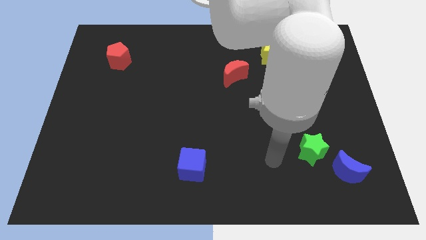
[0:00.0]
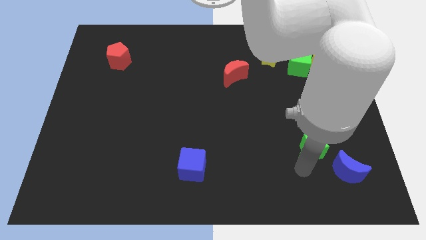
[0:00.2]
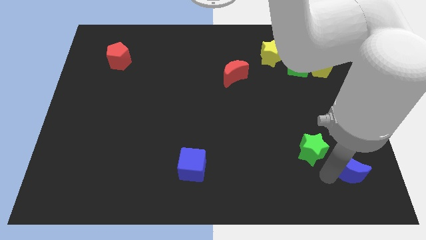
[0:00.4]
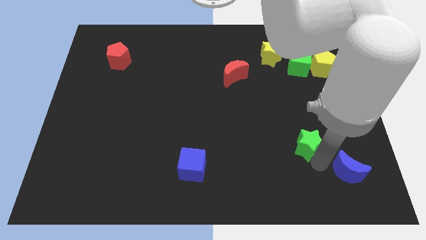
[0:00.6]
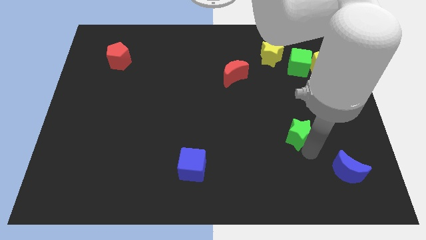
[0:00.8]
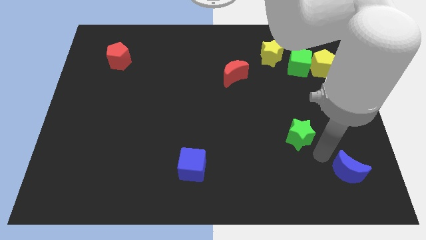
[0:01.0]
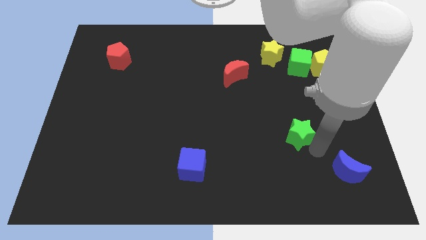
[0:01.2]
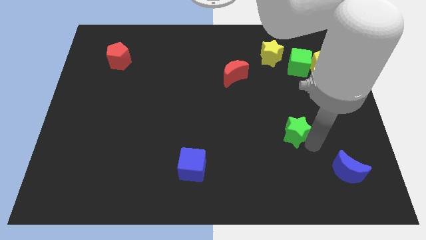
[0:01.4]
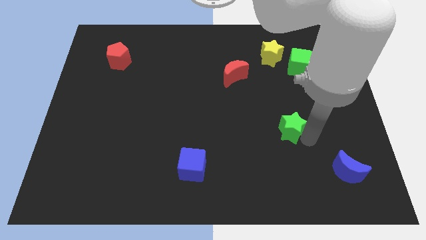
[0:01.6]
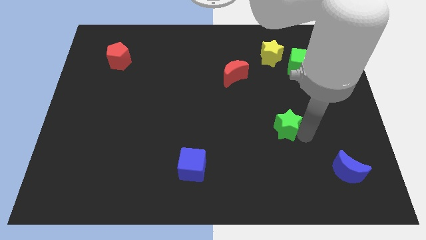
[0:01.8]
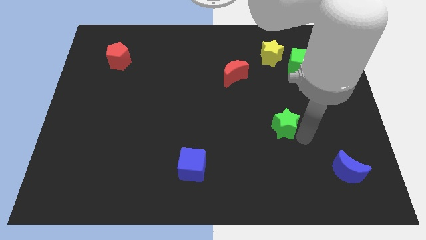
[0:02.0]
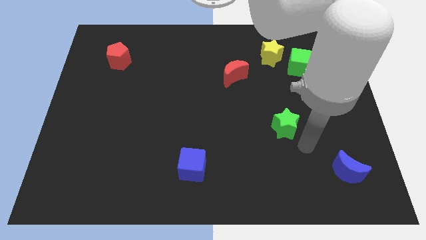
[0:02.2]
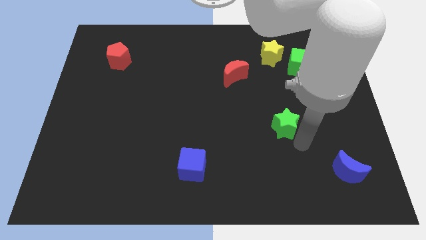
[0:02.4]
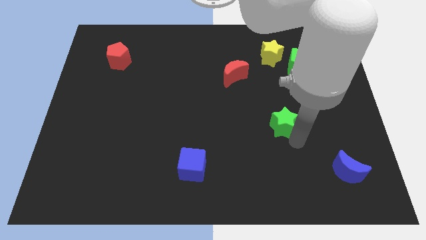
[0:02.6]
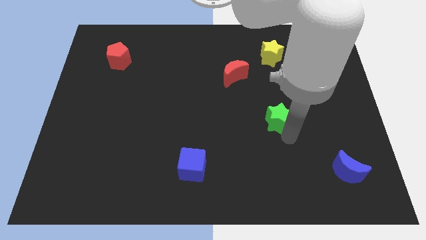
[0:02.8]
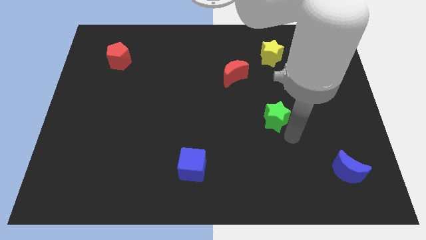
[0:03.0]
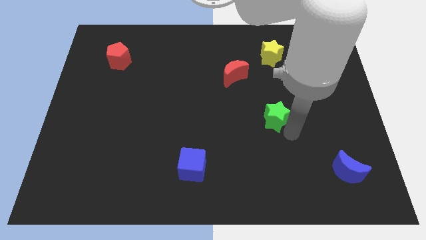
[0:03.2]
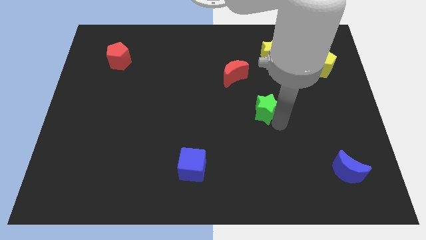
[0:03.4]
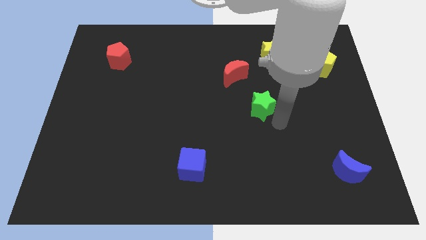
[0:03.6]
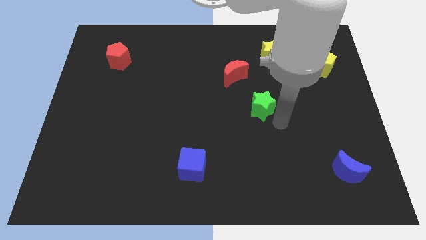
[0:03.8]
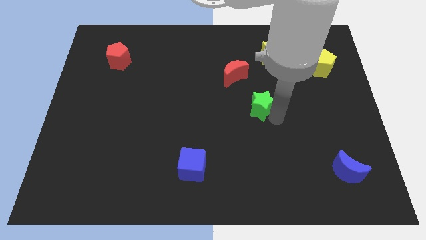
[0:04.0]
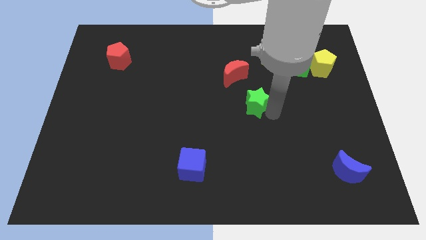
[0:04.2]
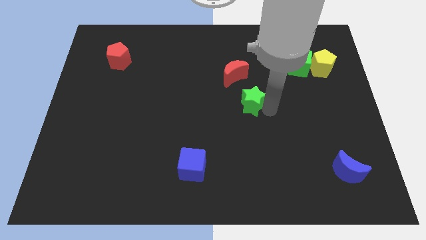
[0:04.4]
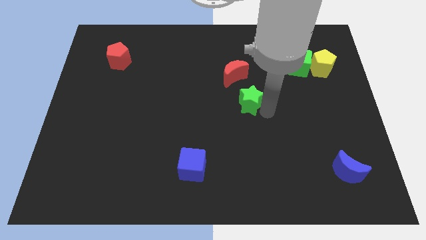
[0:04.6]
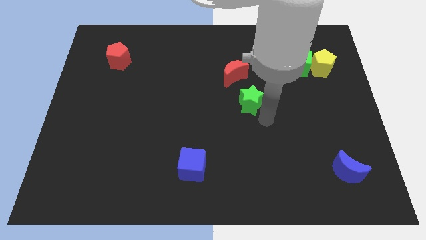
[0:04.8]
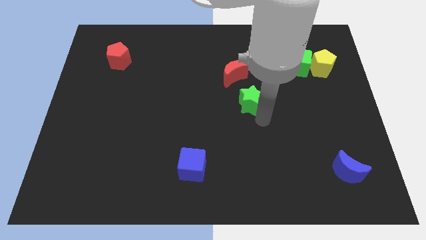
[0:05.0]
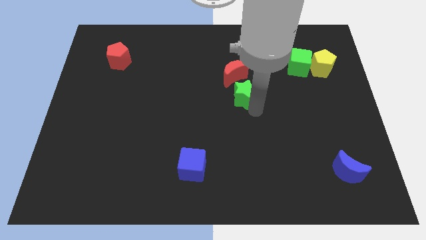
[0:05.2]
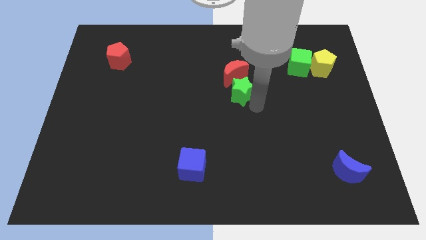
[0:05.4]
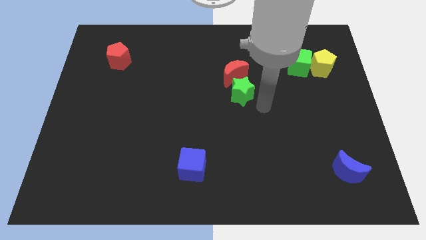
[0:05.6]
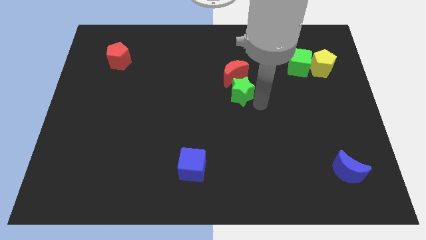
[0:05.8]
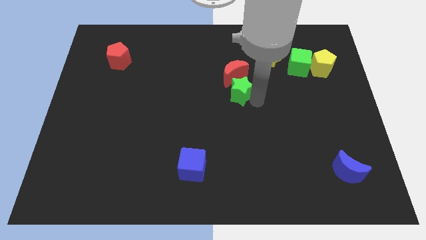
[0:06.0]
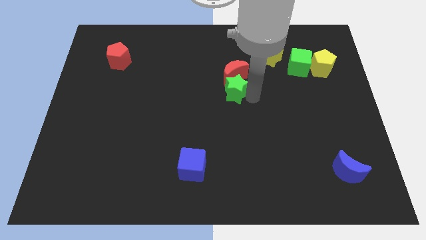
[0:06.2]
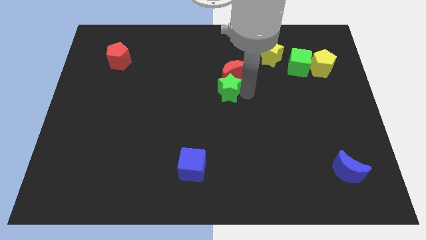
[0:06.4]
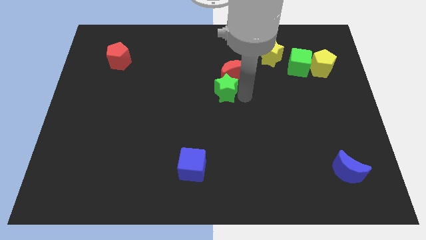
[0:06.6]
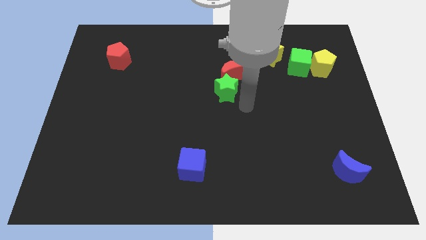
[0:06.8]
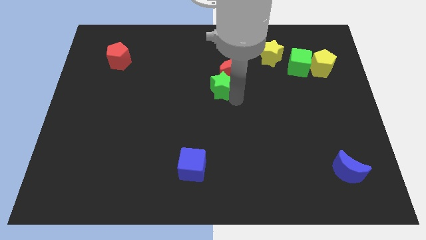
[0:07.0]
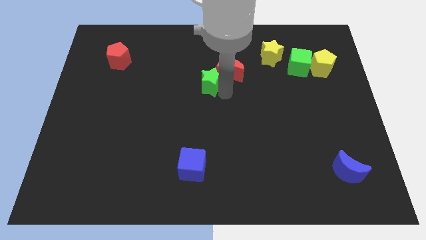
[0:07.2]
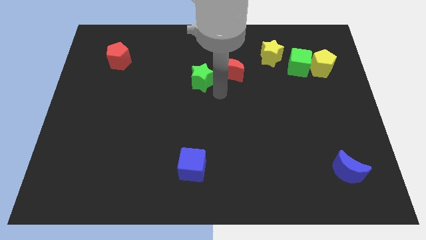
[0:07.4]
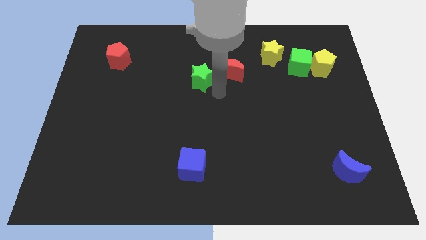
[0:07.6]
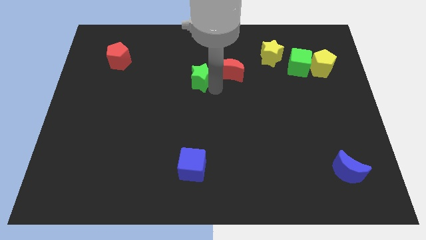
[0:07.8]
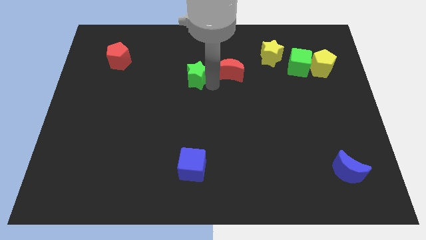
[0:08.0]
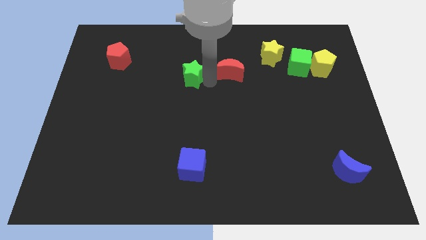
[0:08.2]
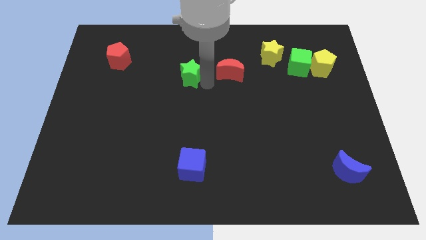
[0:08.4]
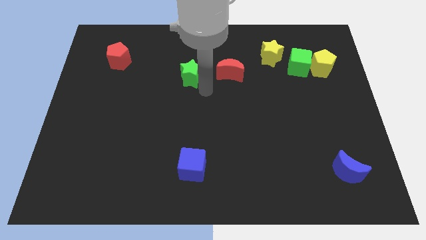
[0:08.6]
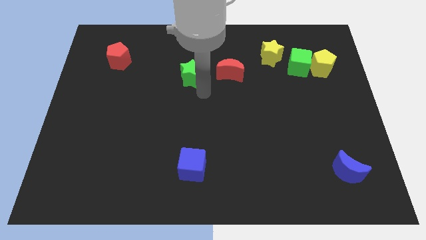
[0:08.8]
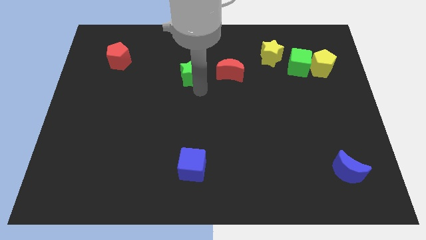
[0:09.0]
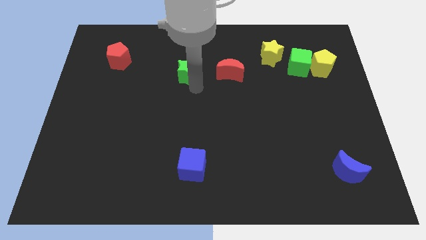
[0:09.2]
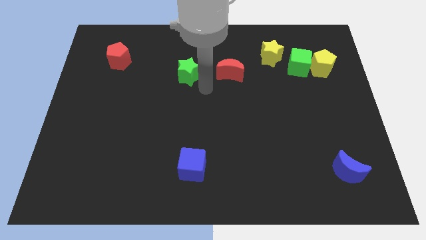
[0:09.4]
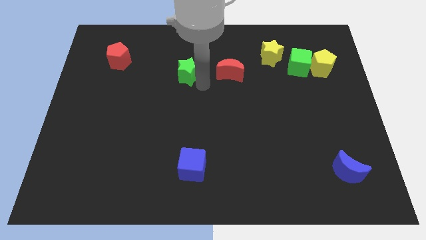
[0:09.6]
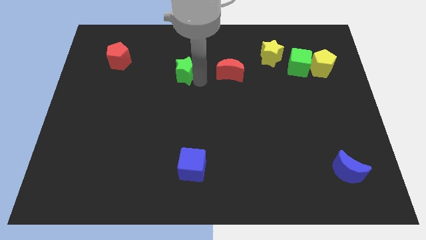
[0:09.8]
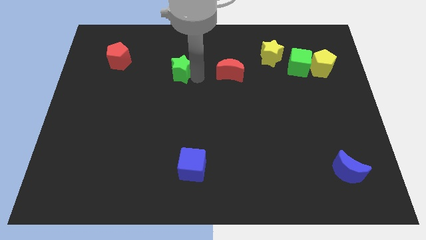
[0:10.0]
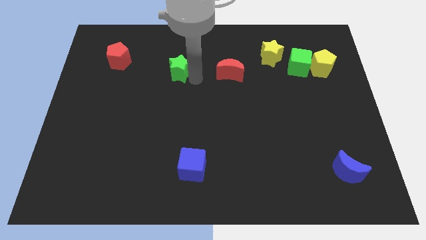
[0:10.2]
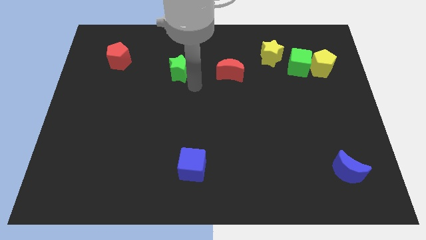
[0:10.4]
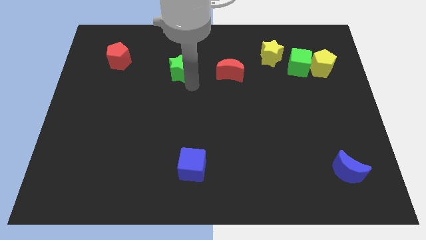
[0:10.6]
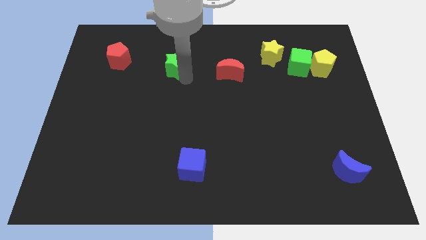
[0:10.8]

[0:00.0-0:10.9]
move the green star just right of the red pentagon

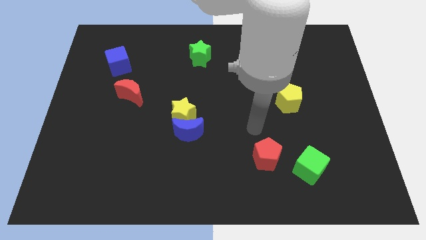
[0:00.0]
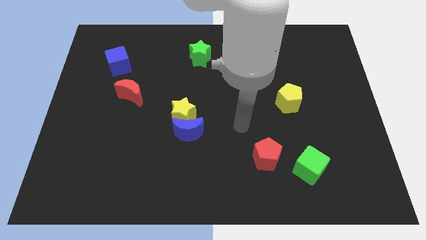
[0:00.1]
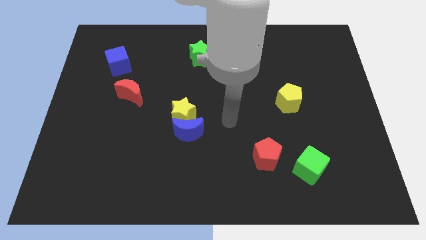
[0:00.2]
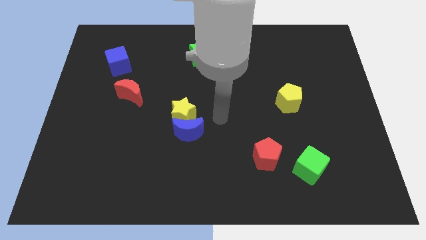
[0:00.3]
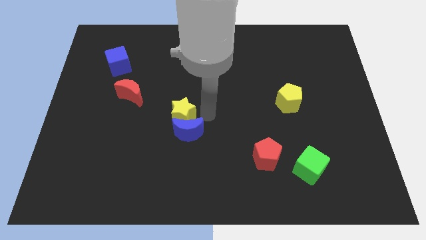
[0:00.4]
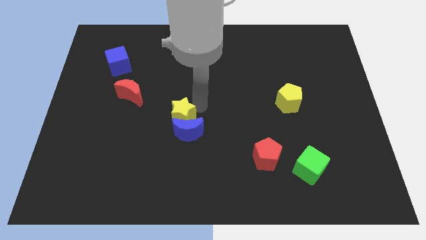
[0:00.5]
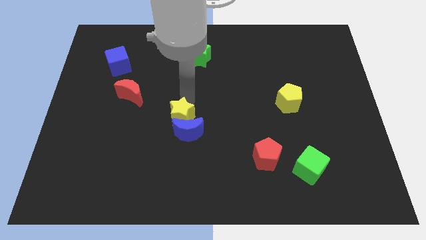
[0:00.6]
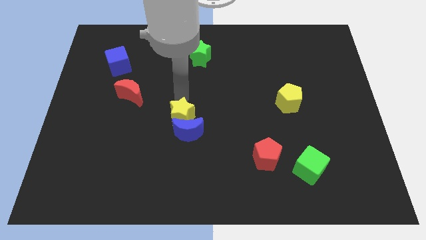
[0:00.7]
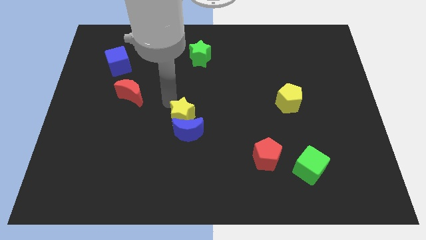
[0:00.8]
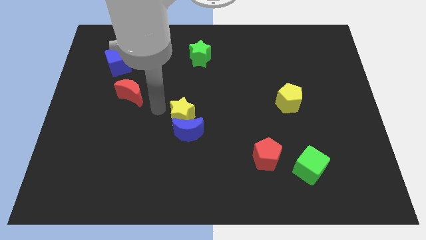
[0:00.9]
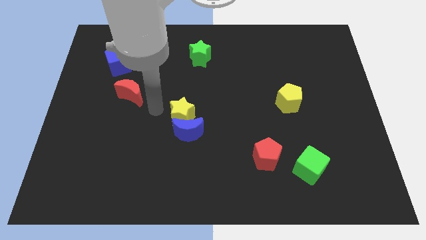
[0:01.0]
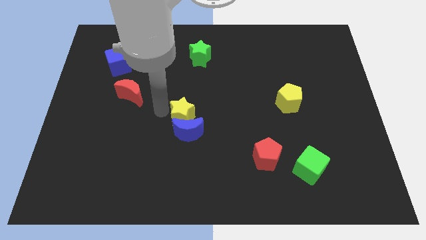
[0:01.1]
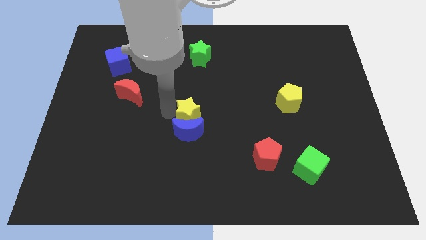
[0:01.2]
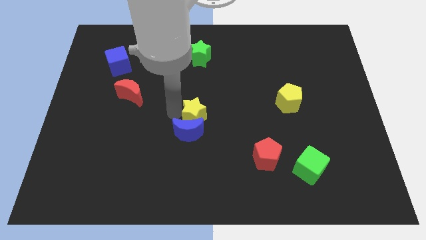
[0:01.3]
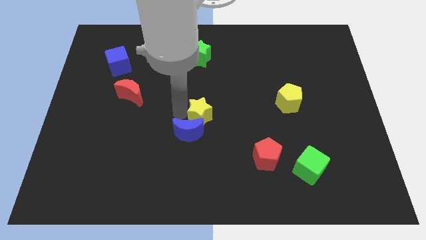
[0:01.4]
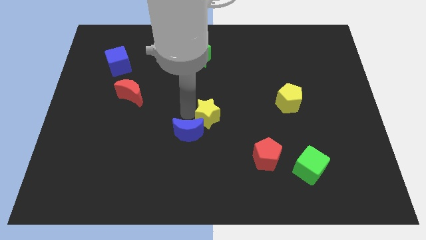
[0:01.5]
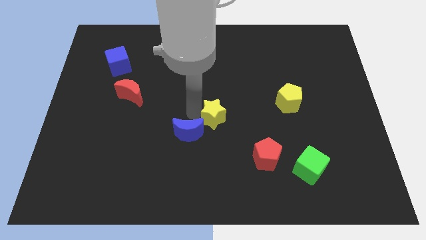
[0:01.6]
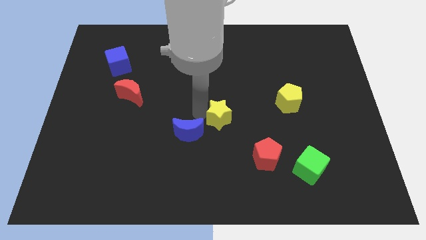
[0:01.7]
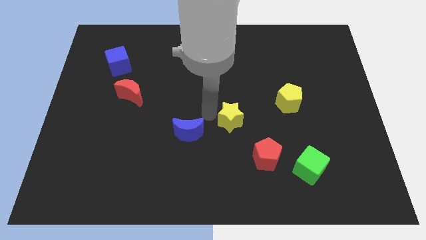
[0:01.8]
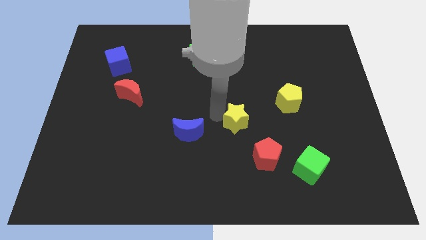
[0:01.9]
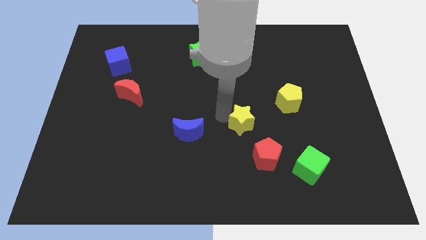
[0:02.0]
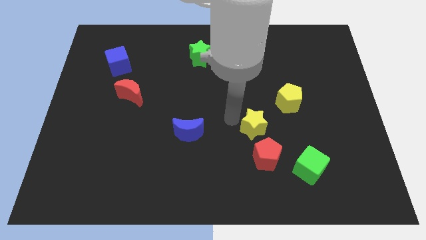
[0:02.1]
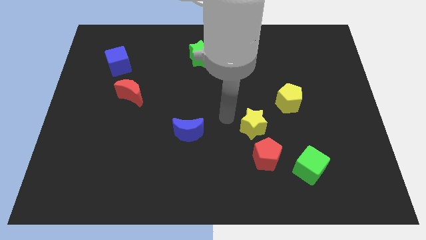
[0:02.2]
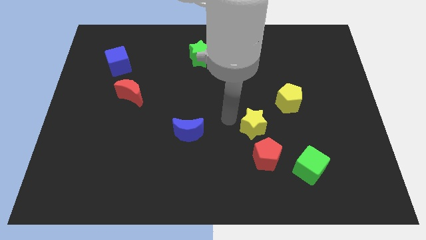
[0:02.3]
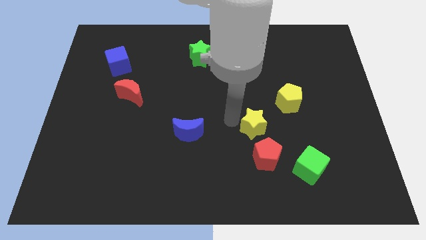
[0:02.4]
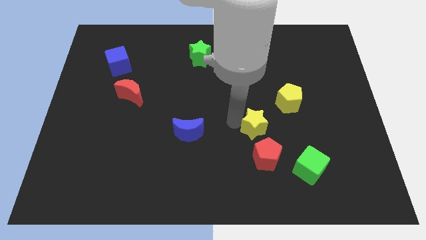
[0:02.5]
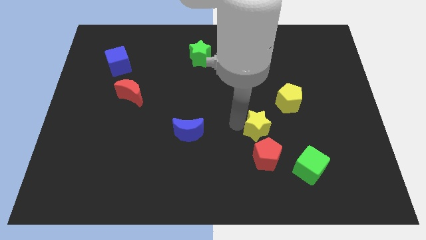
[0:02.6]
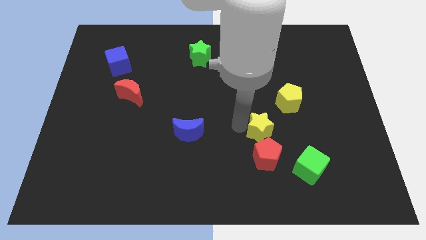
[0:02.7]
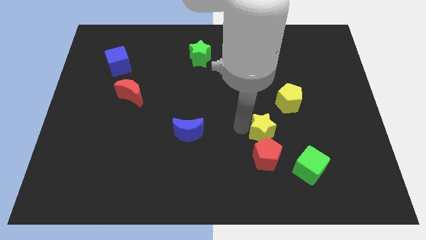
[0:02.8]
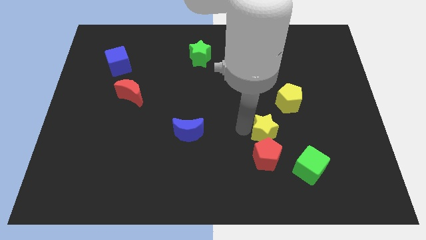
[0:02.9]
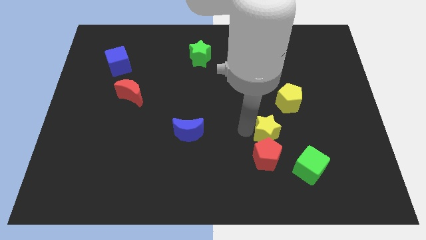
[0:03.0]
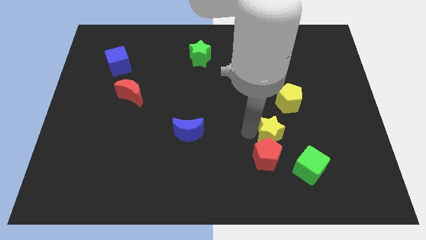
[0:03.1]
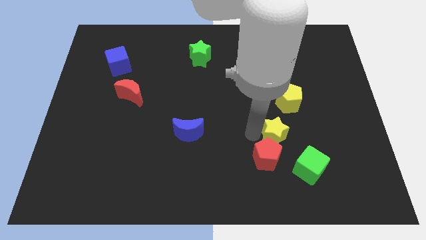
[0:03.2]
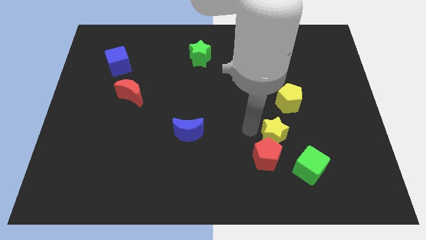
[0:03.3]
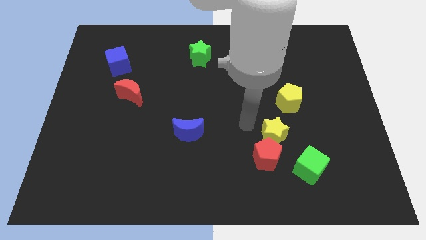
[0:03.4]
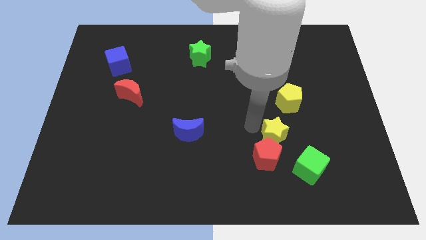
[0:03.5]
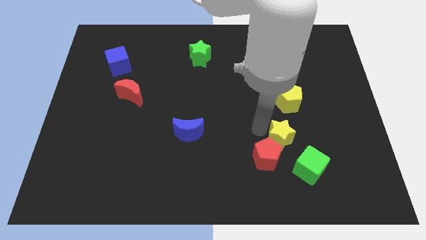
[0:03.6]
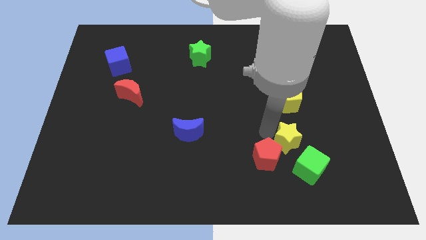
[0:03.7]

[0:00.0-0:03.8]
move the yellow star just right of the red pentagon
